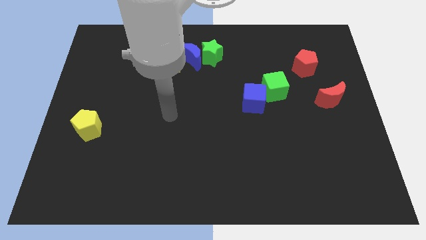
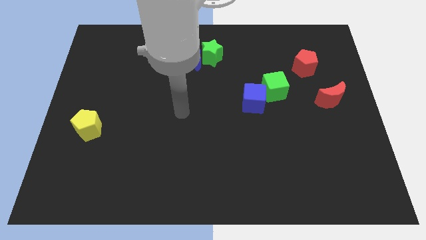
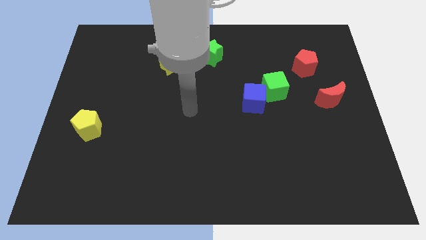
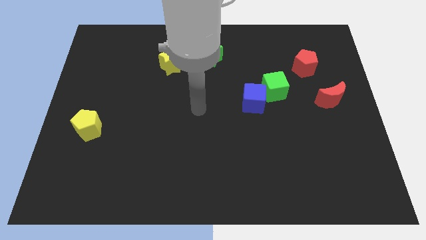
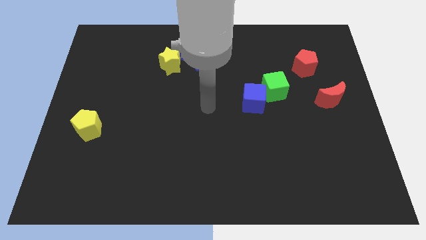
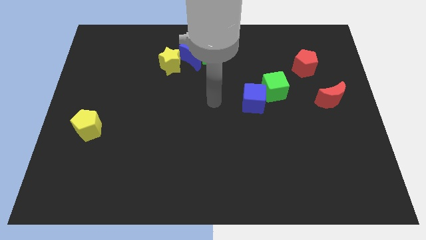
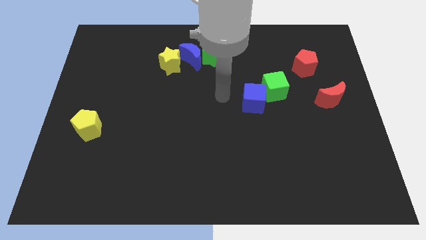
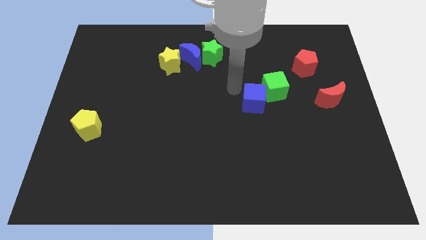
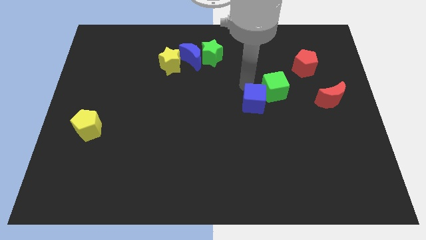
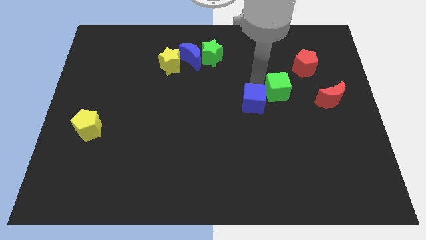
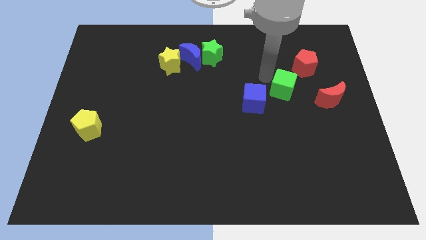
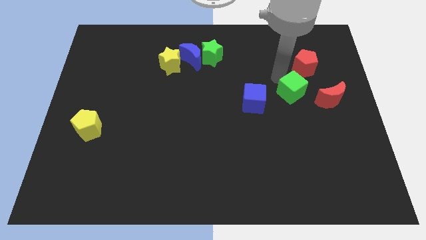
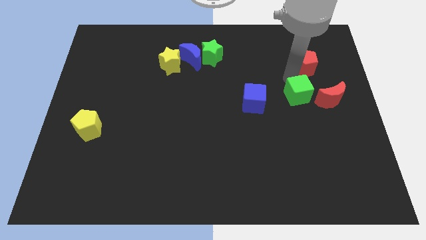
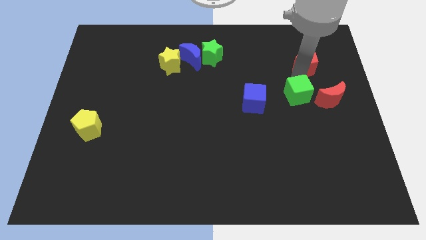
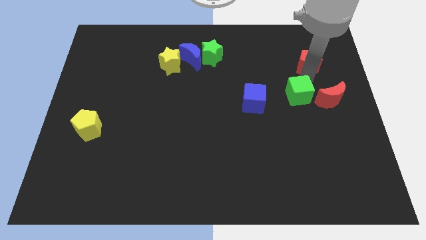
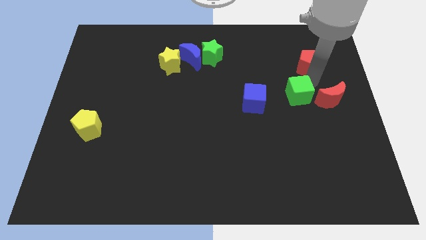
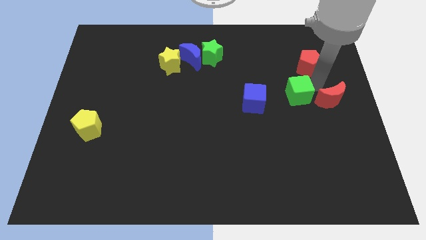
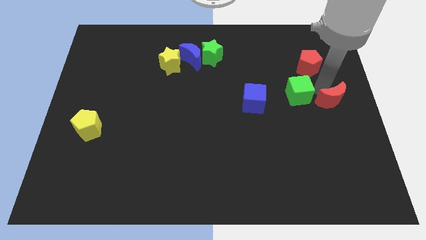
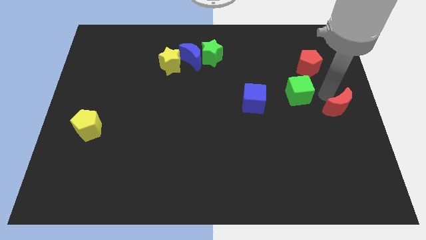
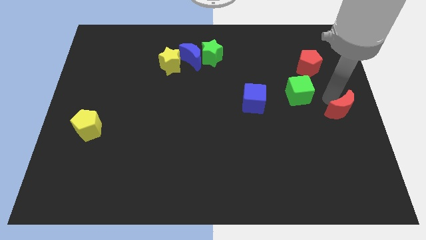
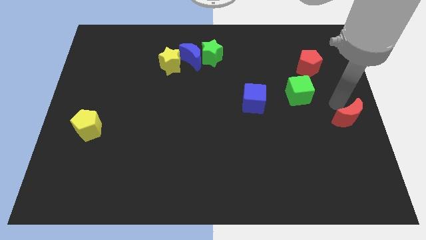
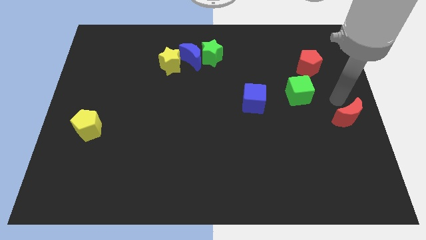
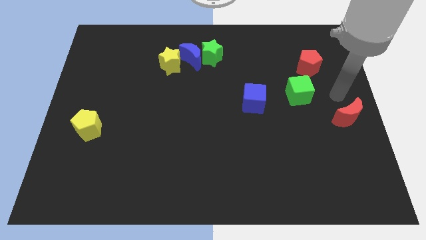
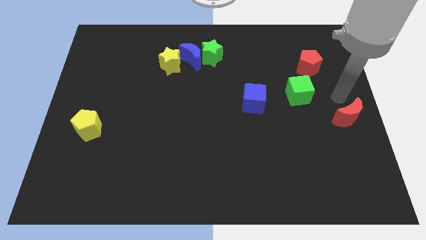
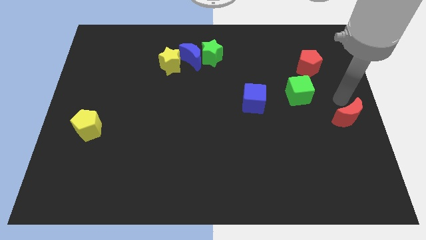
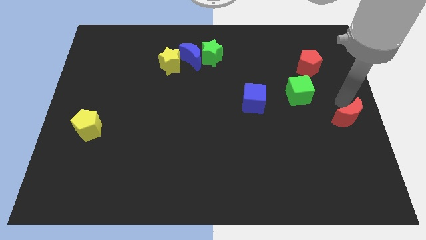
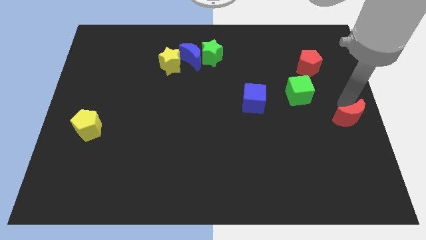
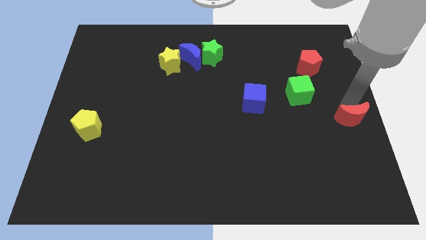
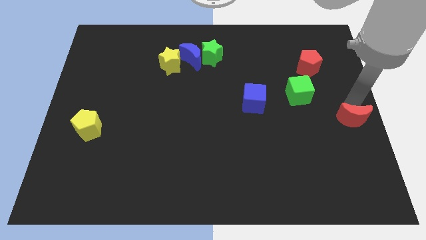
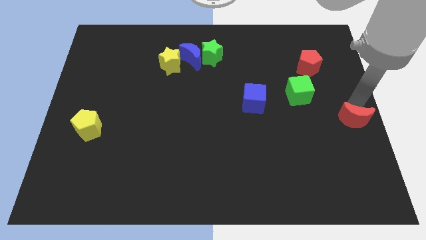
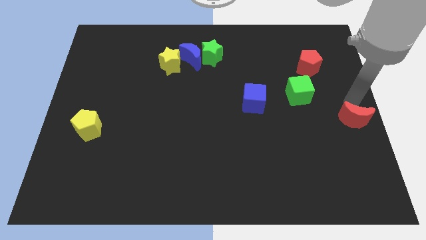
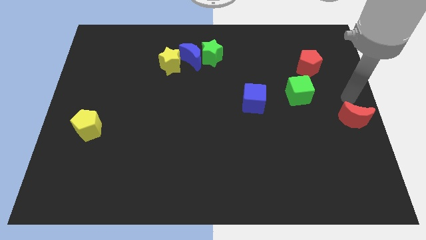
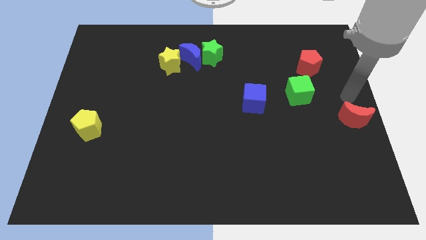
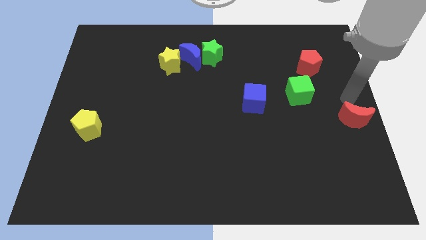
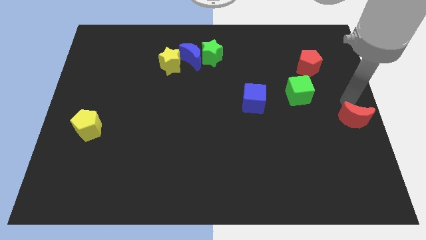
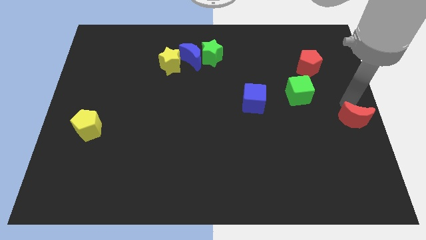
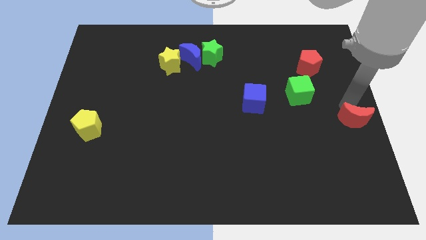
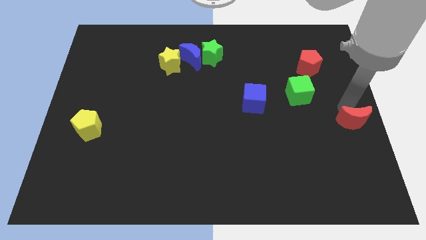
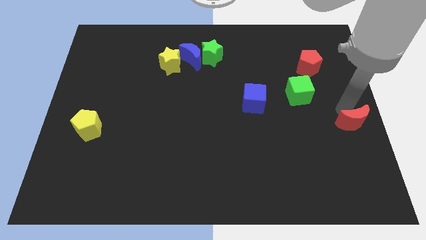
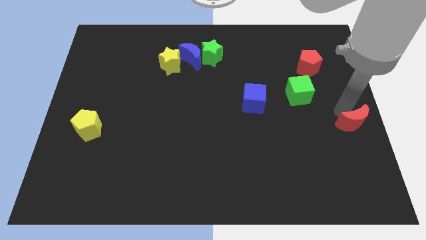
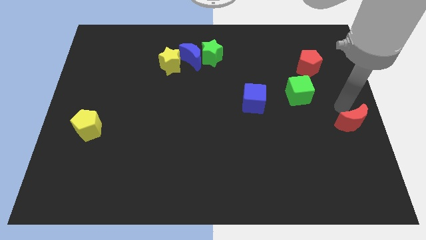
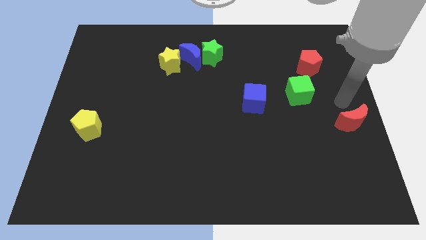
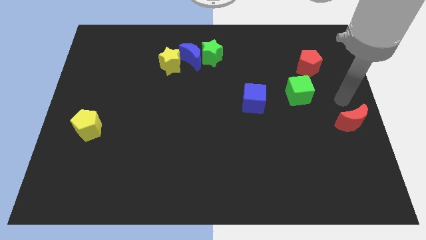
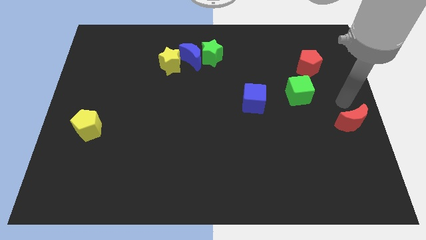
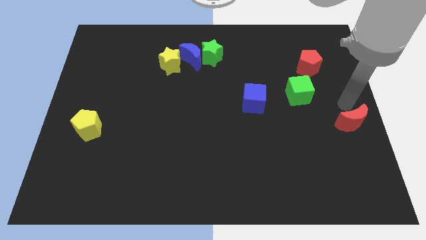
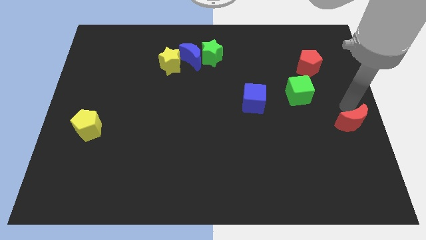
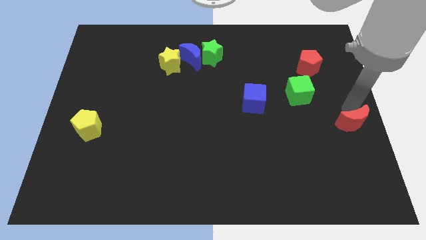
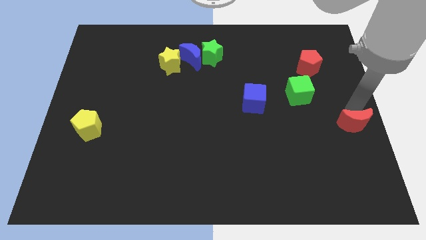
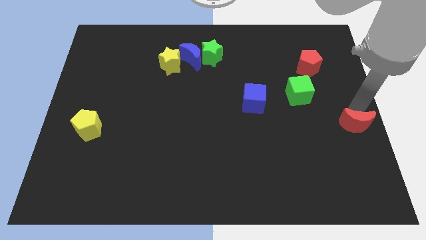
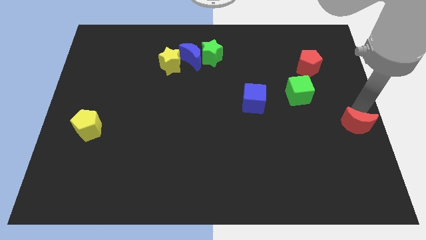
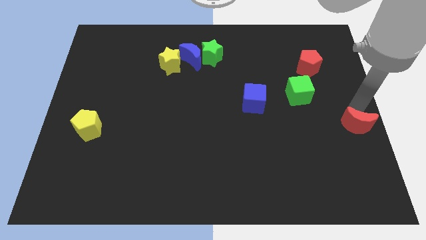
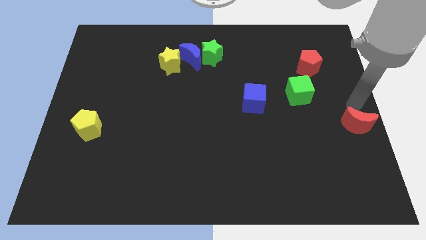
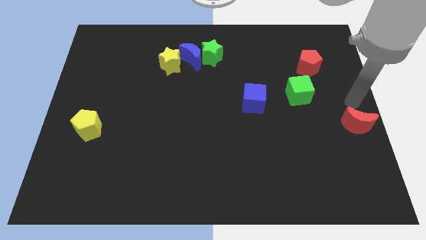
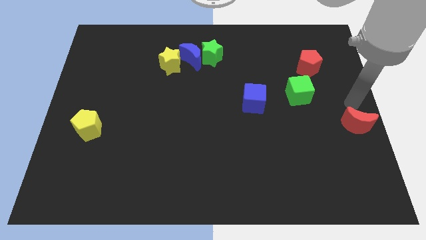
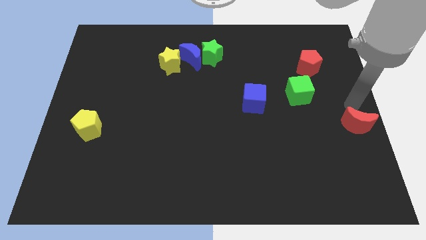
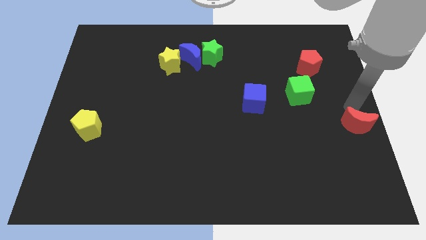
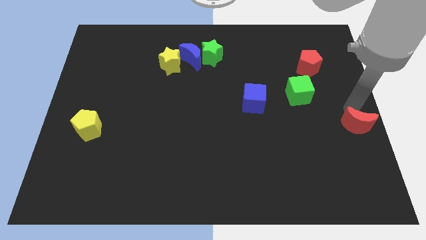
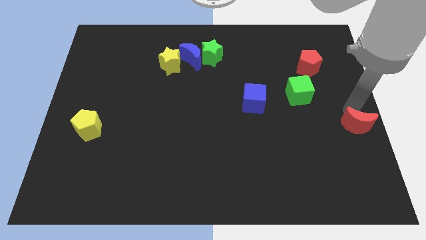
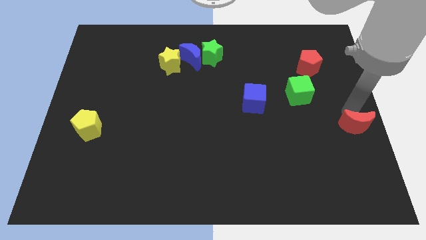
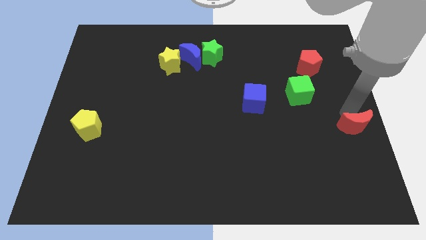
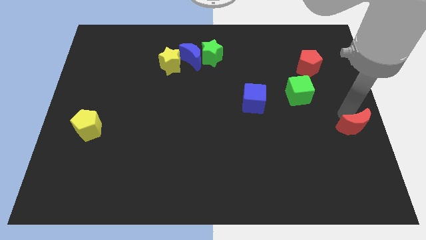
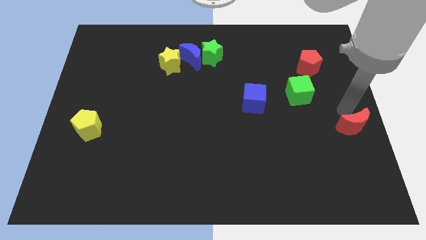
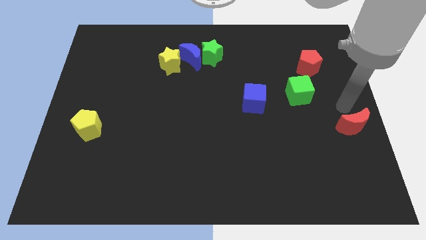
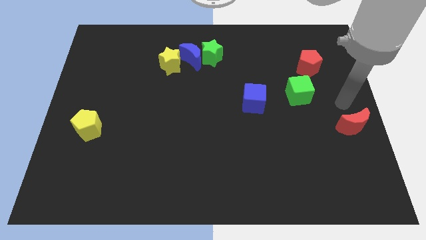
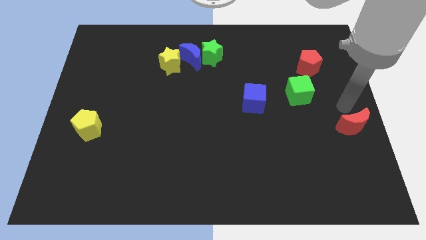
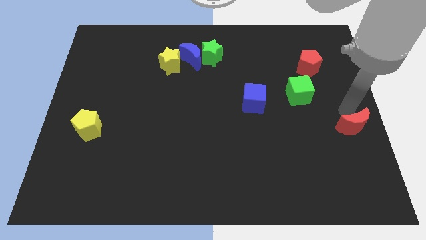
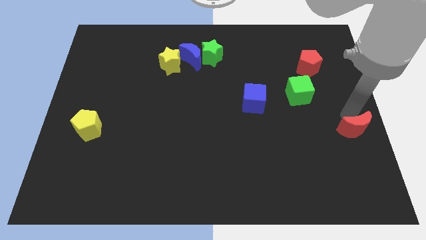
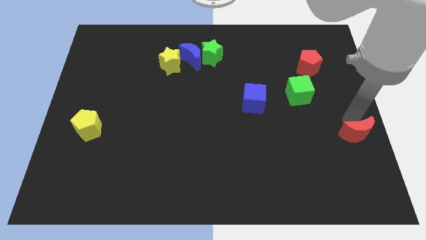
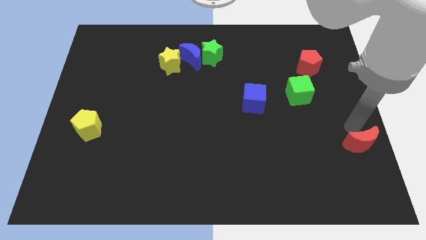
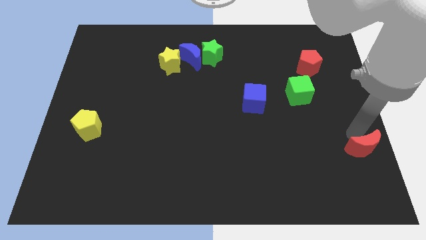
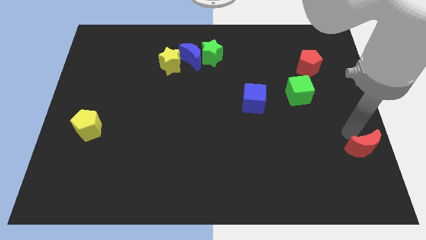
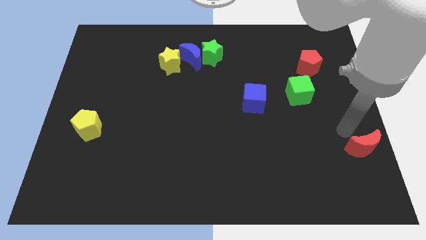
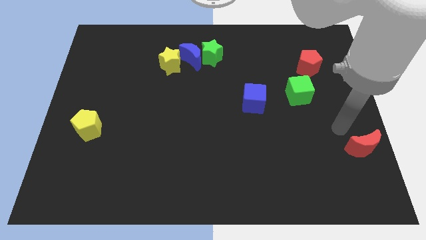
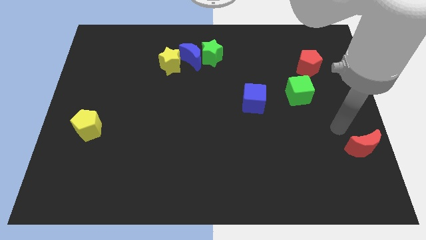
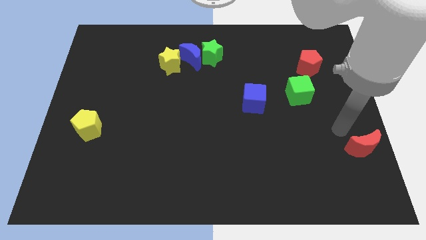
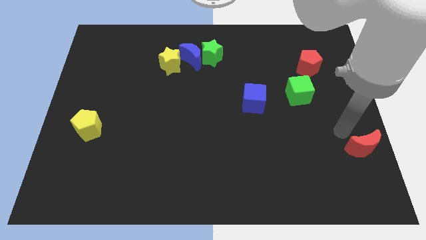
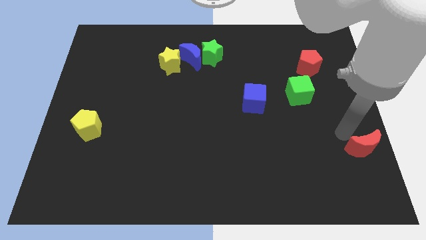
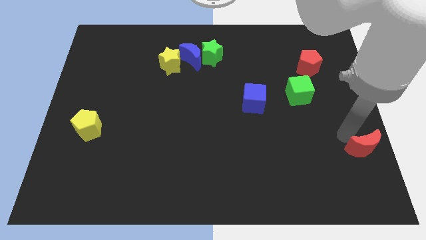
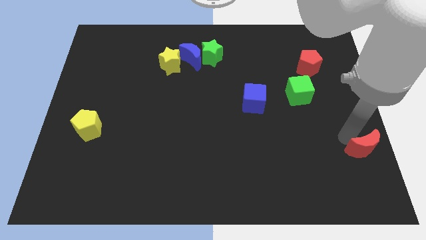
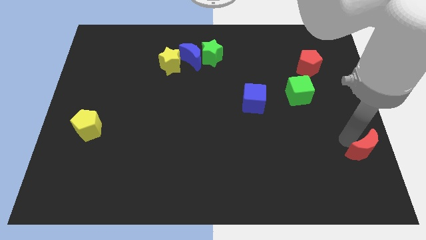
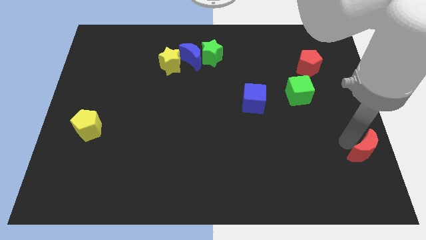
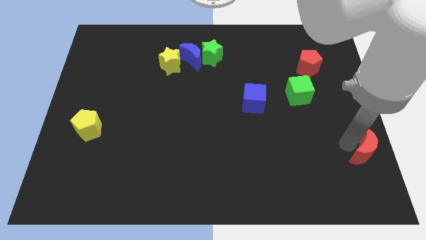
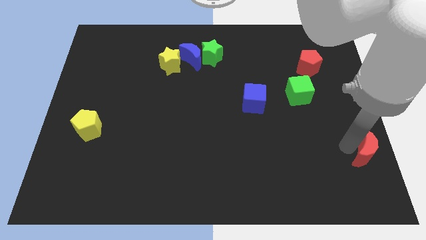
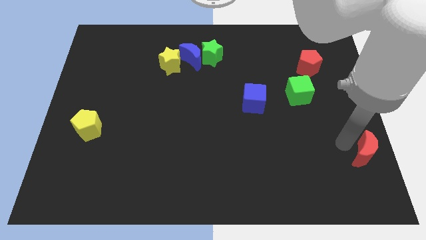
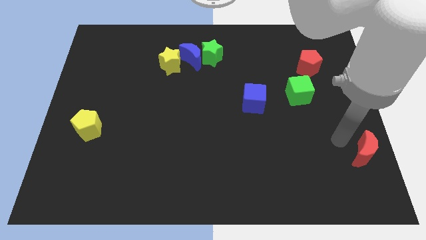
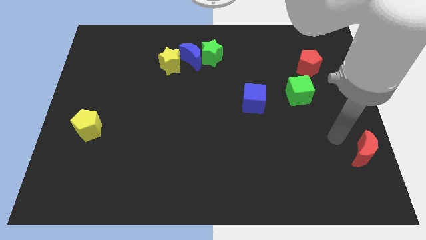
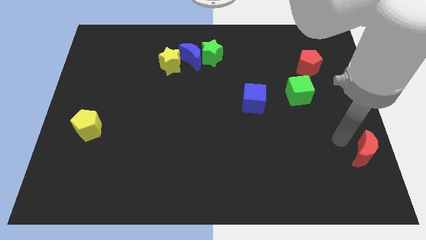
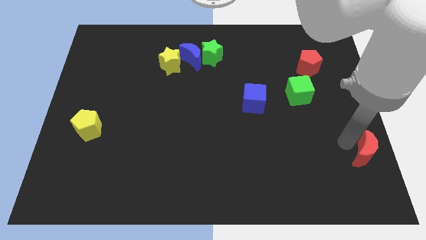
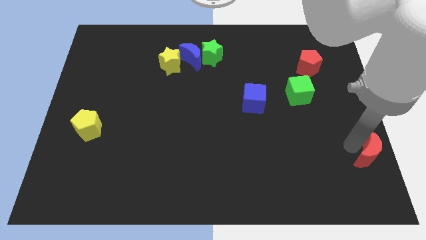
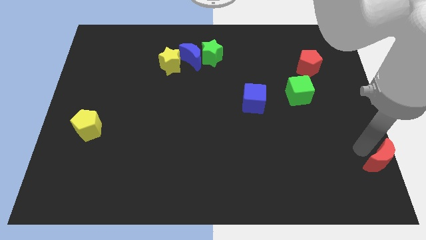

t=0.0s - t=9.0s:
slide the red moon to the bottom right corner
